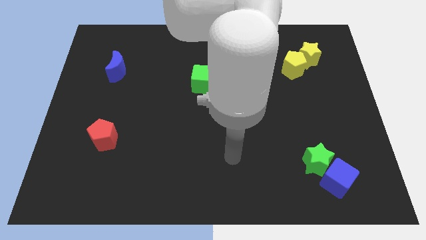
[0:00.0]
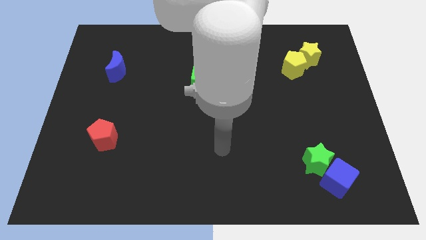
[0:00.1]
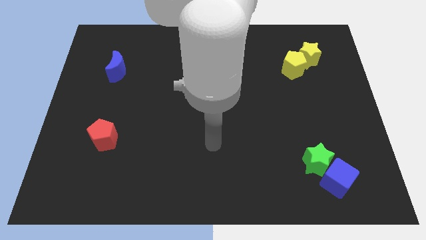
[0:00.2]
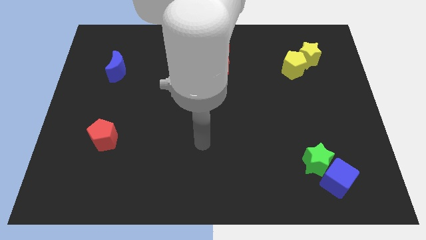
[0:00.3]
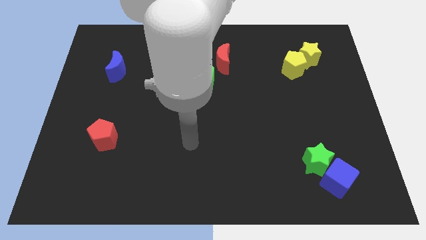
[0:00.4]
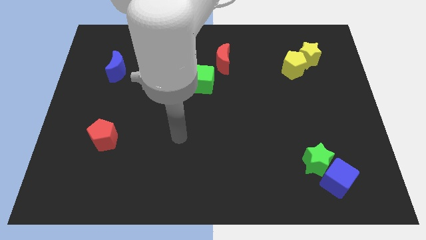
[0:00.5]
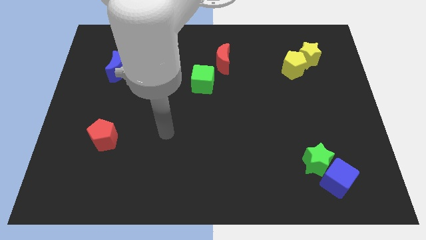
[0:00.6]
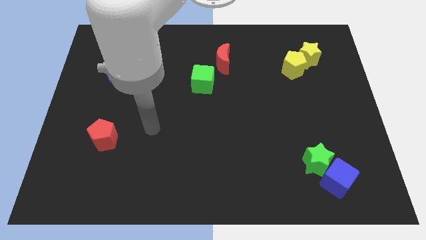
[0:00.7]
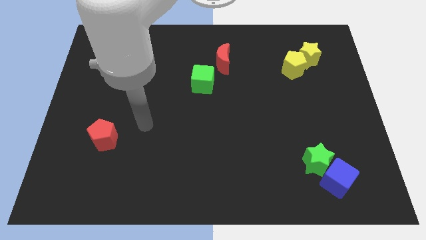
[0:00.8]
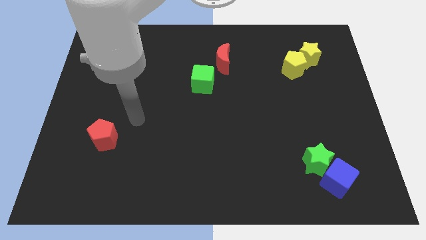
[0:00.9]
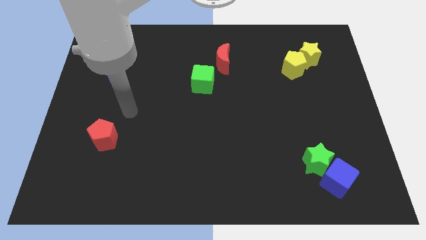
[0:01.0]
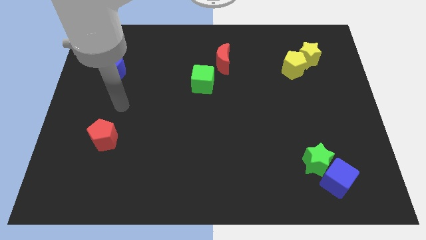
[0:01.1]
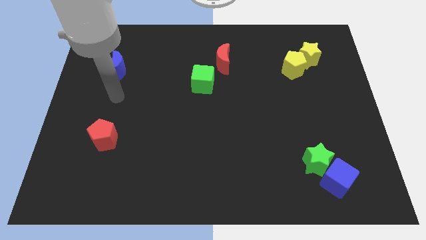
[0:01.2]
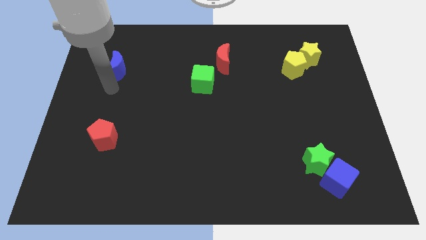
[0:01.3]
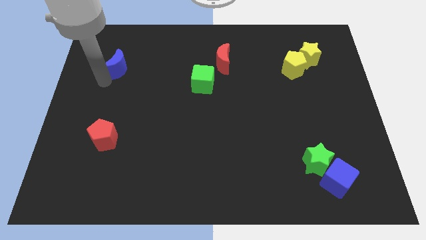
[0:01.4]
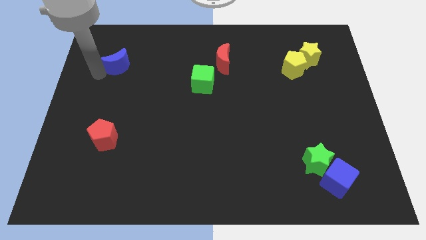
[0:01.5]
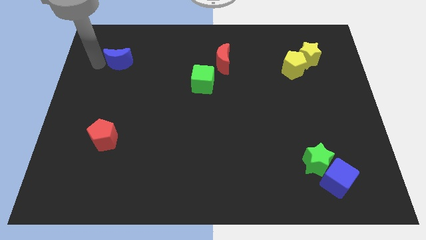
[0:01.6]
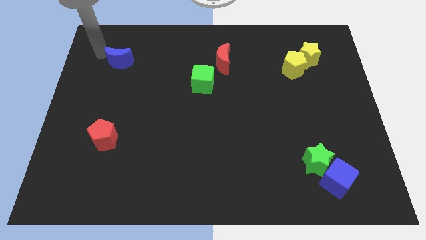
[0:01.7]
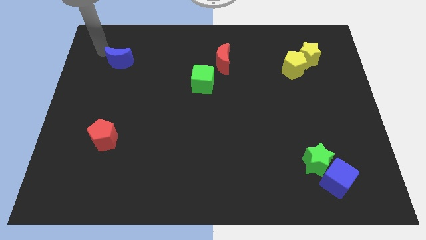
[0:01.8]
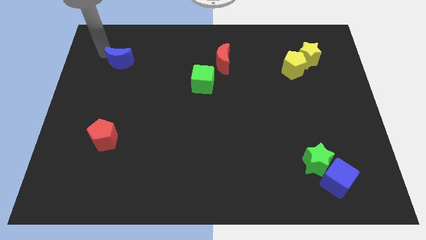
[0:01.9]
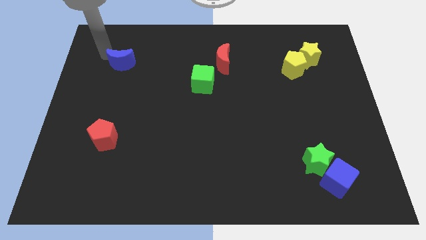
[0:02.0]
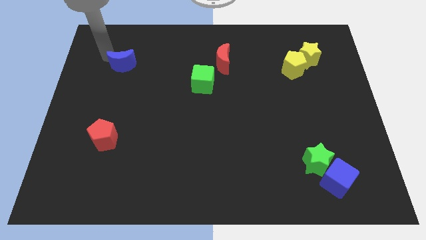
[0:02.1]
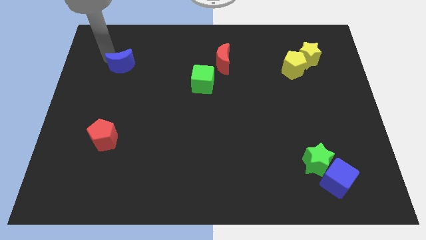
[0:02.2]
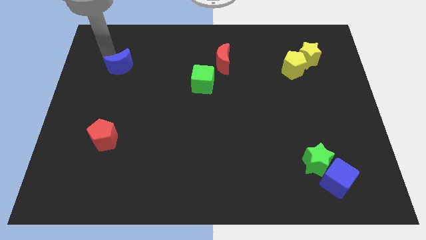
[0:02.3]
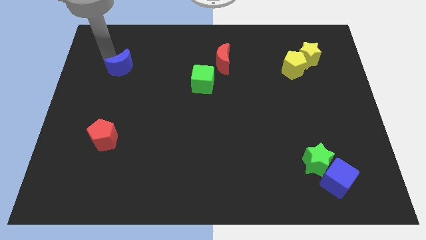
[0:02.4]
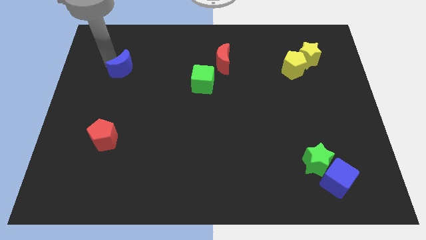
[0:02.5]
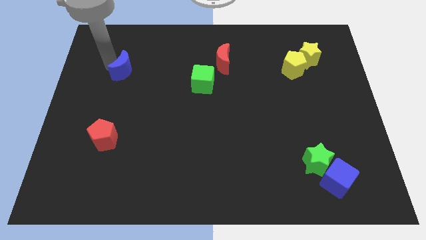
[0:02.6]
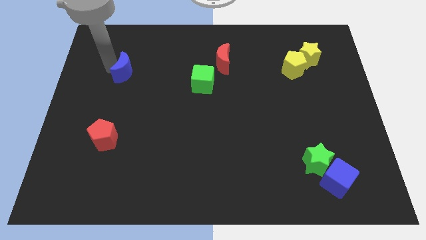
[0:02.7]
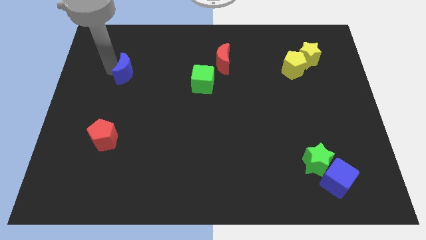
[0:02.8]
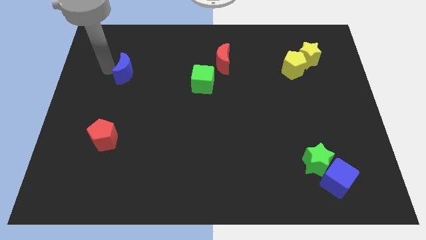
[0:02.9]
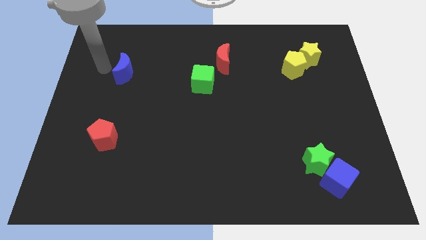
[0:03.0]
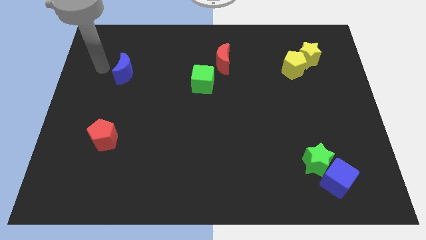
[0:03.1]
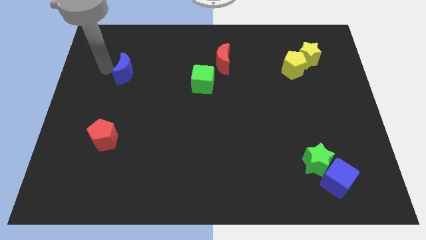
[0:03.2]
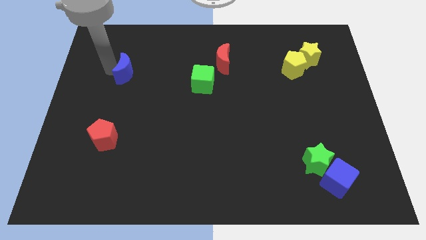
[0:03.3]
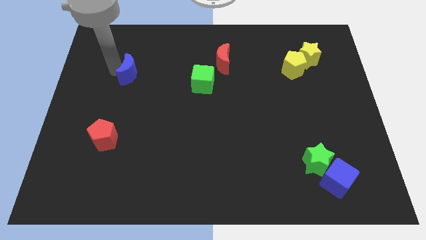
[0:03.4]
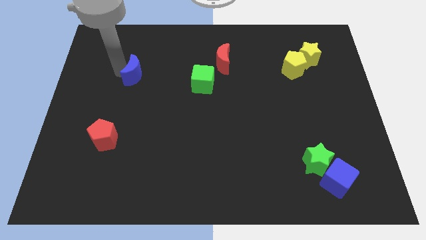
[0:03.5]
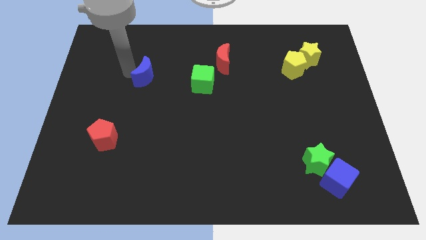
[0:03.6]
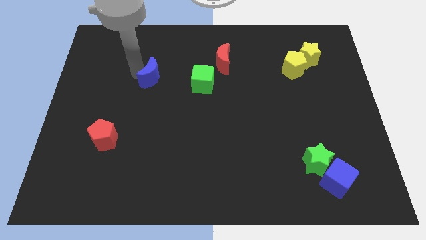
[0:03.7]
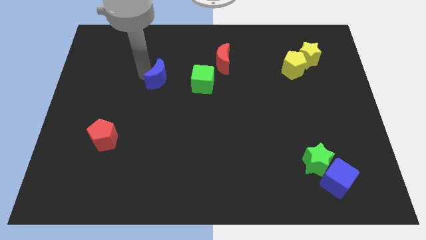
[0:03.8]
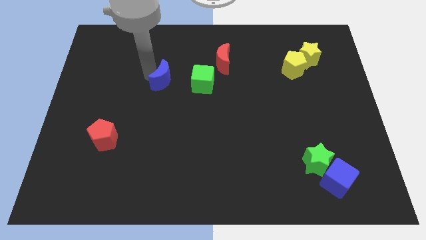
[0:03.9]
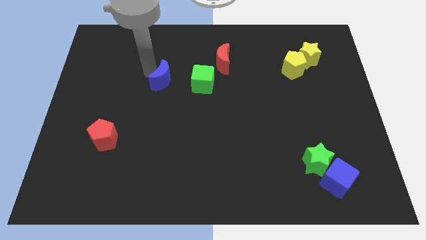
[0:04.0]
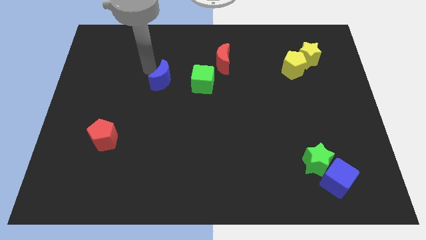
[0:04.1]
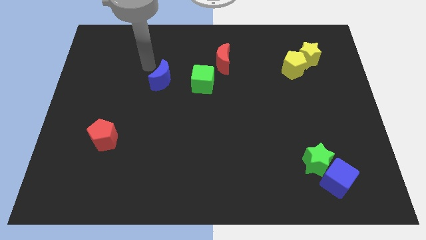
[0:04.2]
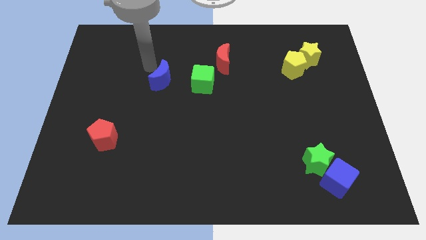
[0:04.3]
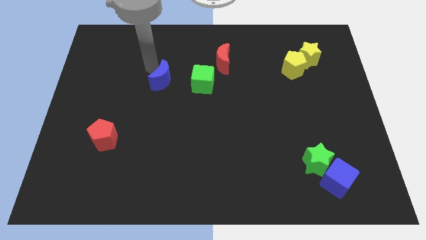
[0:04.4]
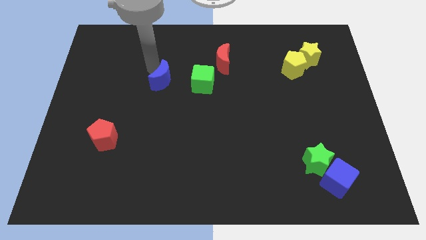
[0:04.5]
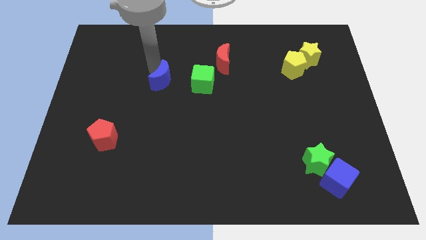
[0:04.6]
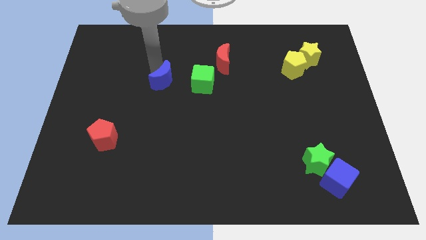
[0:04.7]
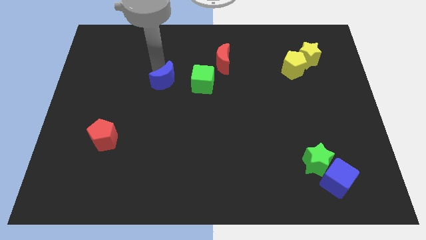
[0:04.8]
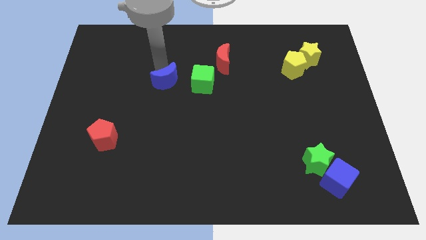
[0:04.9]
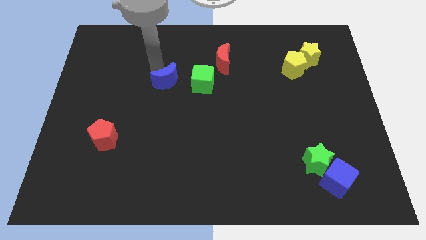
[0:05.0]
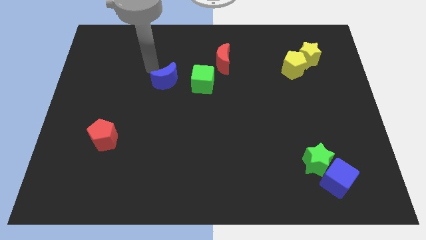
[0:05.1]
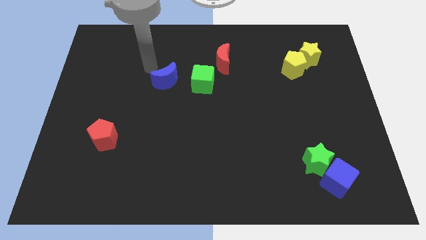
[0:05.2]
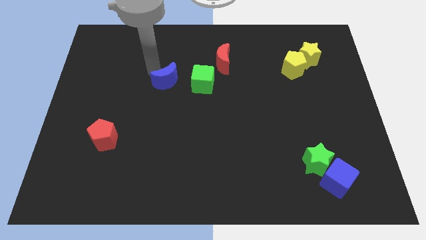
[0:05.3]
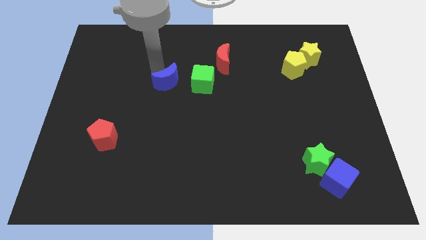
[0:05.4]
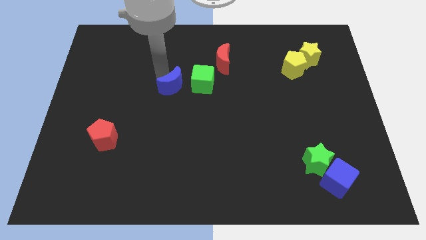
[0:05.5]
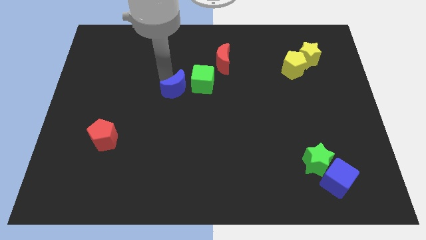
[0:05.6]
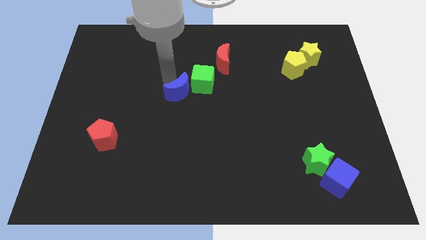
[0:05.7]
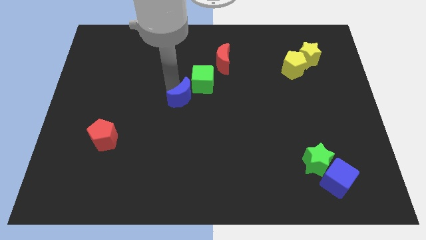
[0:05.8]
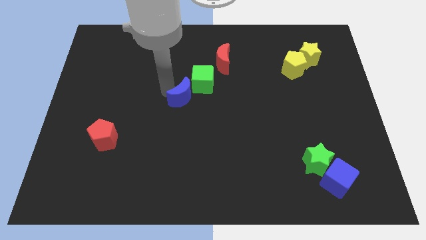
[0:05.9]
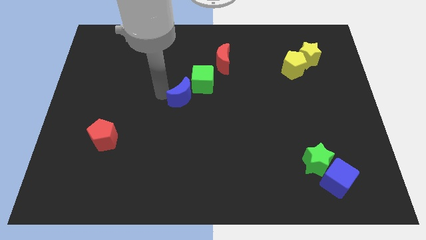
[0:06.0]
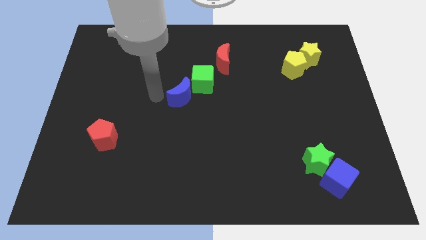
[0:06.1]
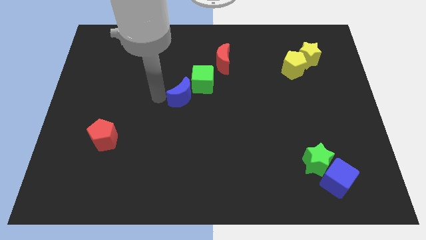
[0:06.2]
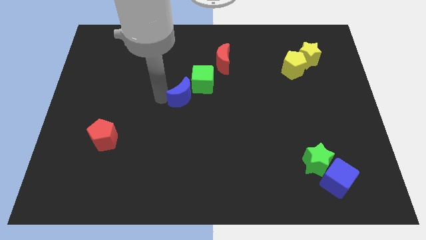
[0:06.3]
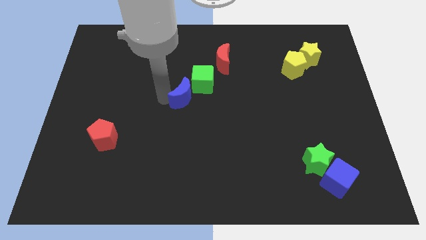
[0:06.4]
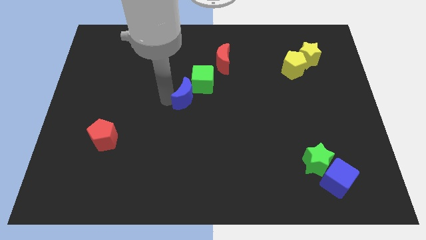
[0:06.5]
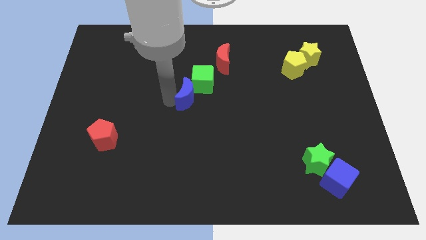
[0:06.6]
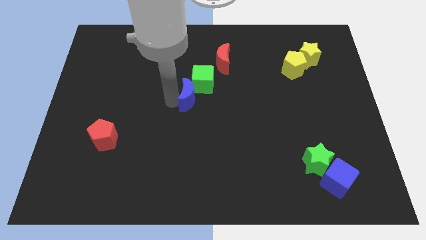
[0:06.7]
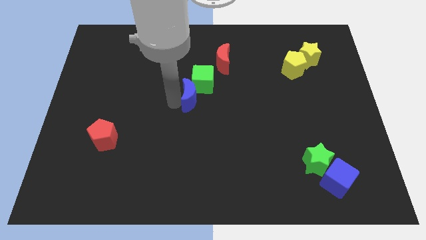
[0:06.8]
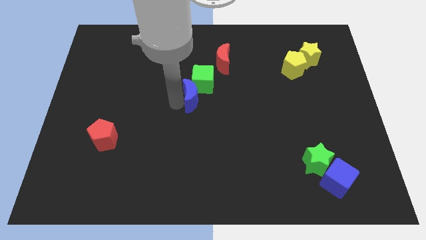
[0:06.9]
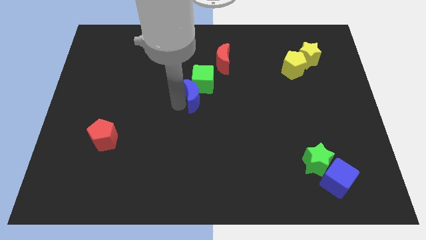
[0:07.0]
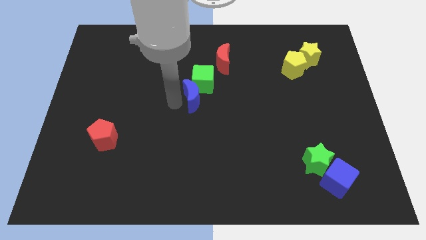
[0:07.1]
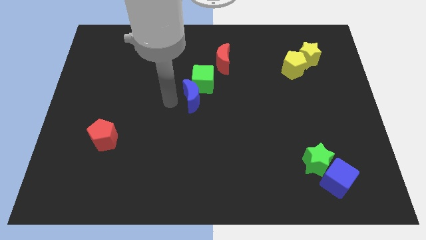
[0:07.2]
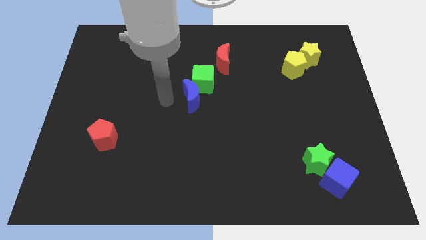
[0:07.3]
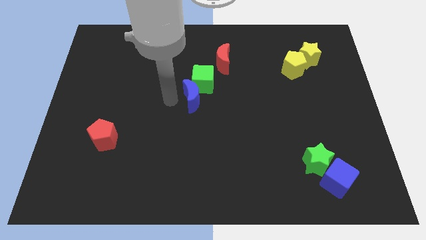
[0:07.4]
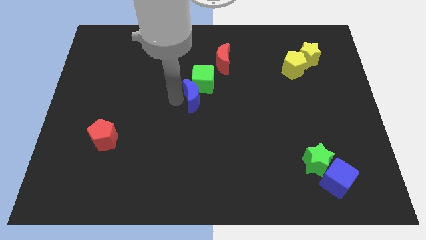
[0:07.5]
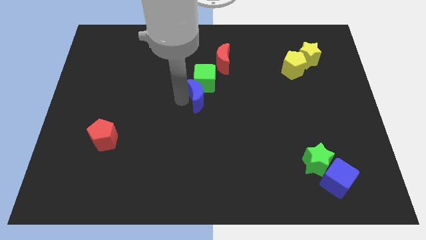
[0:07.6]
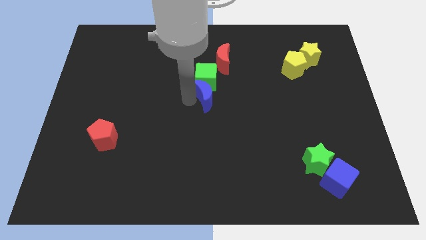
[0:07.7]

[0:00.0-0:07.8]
put the blue moon to the bottom side of the red moon
